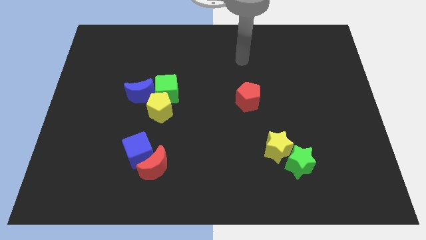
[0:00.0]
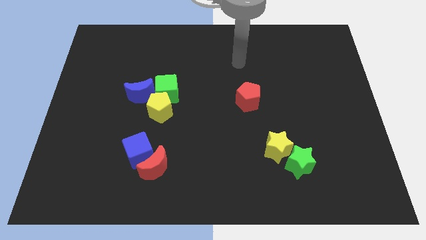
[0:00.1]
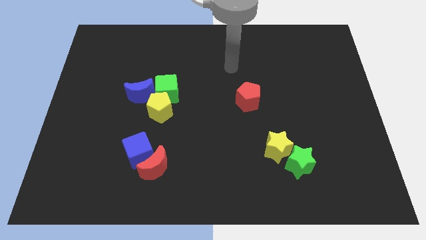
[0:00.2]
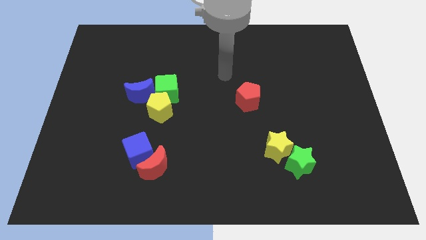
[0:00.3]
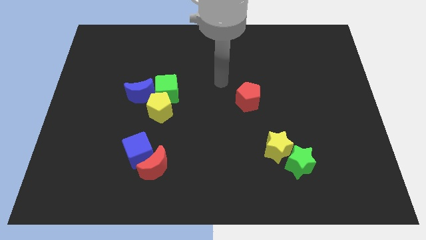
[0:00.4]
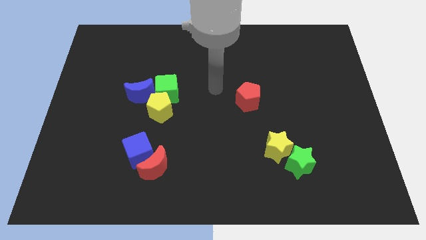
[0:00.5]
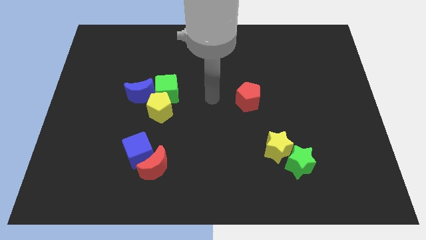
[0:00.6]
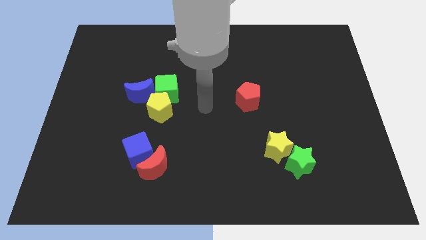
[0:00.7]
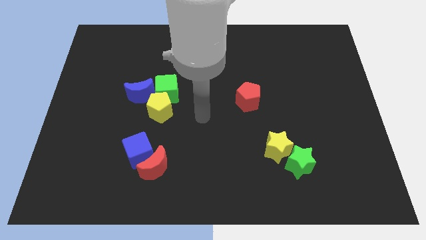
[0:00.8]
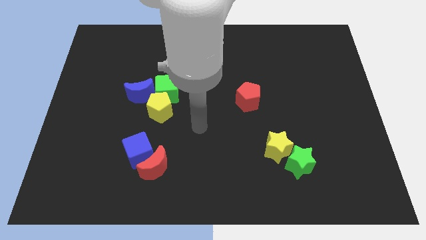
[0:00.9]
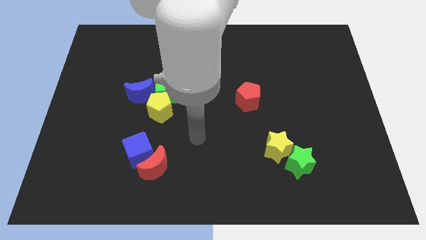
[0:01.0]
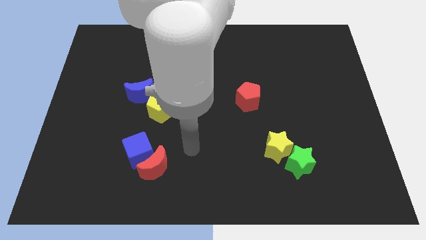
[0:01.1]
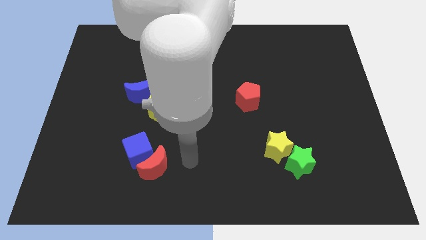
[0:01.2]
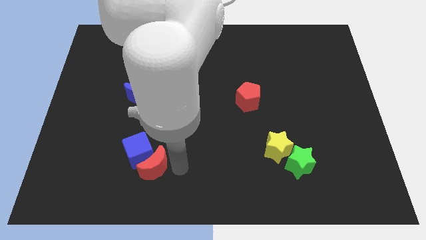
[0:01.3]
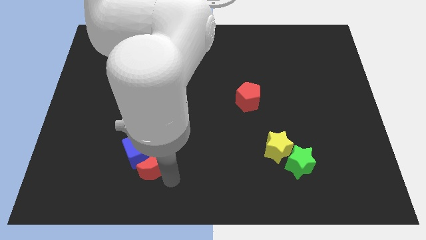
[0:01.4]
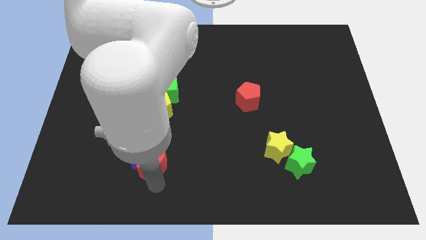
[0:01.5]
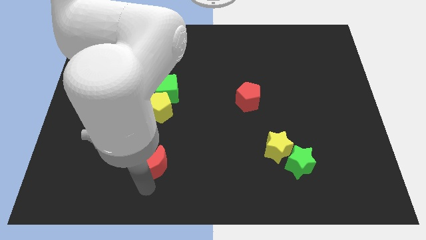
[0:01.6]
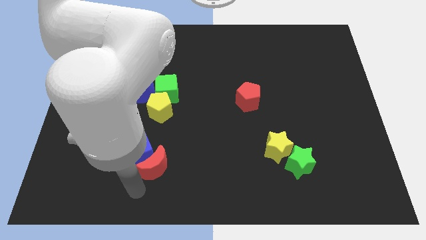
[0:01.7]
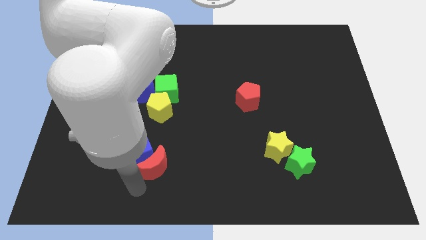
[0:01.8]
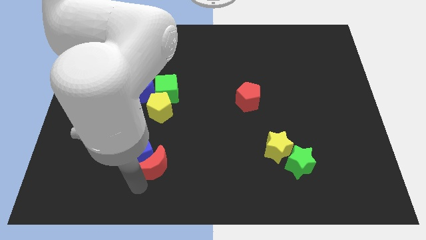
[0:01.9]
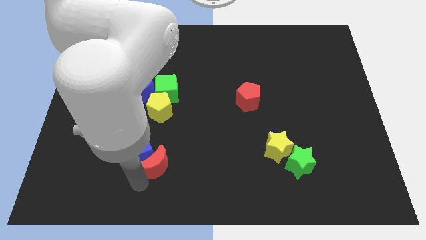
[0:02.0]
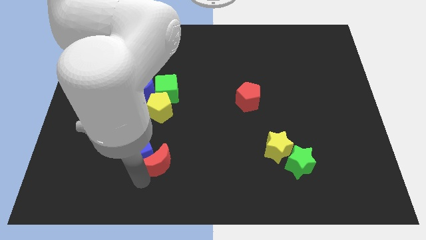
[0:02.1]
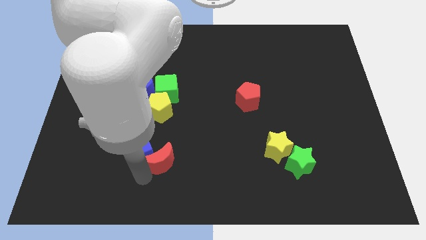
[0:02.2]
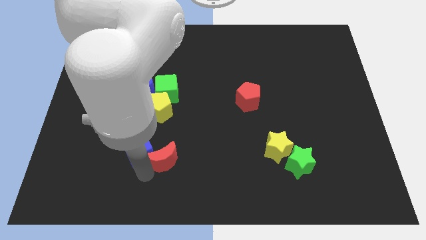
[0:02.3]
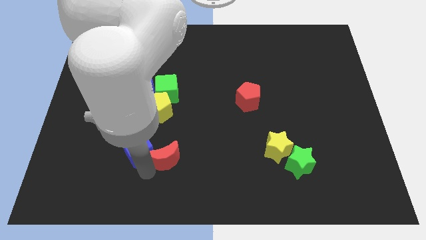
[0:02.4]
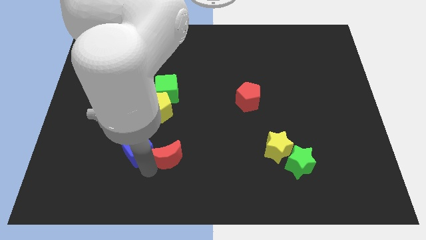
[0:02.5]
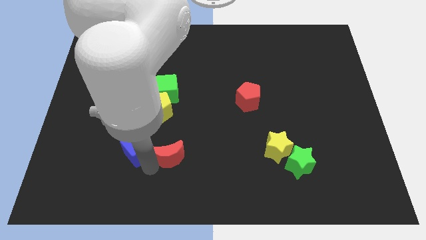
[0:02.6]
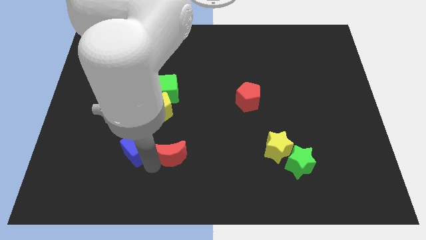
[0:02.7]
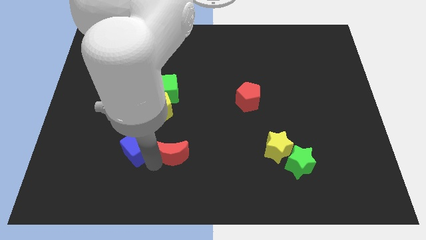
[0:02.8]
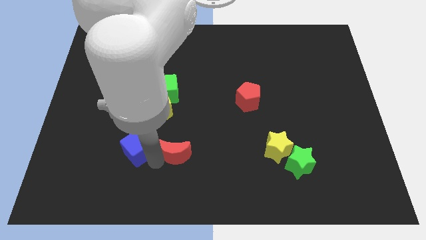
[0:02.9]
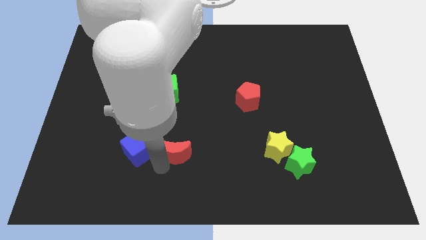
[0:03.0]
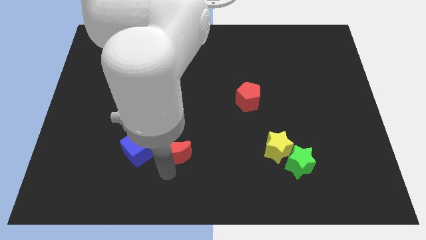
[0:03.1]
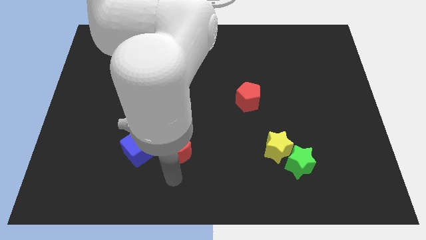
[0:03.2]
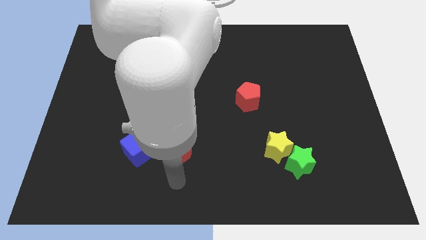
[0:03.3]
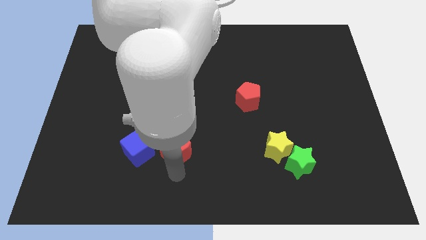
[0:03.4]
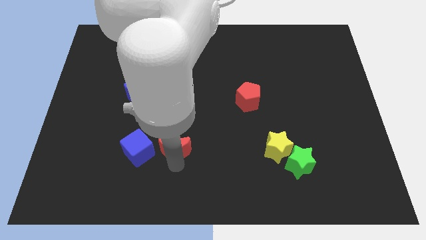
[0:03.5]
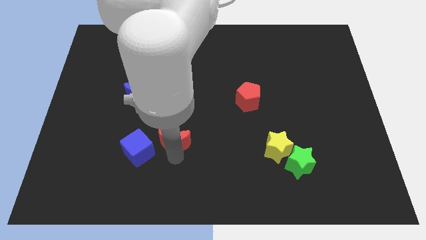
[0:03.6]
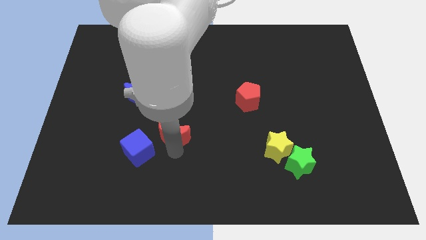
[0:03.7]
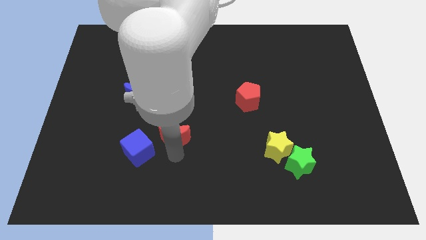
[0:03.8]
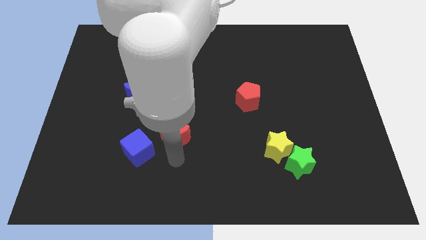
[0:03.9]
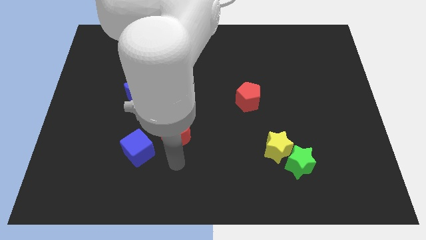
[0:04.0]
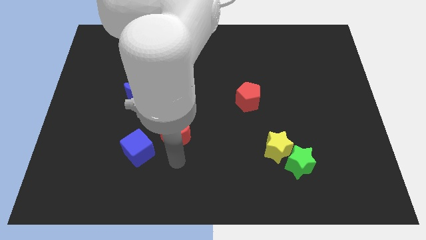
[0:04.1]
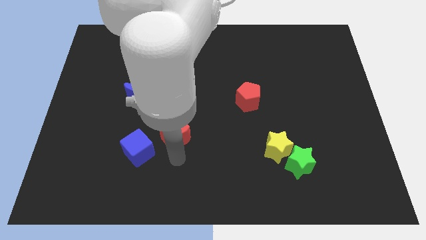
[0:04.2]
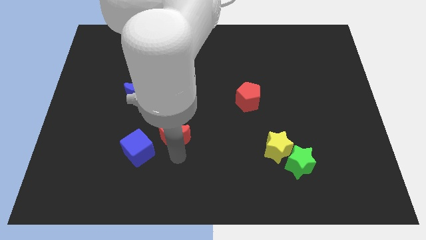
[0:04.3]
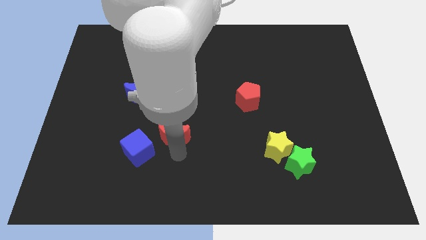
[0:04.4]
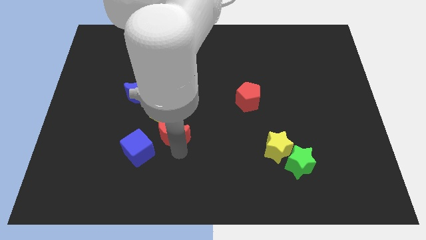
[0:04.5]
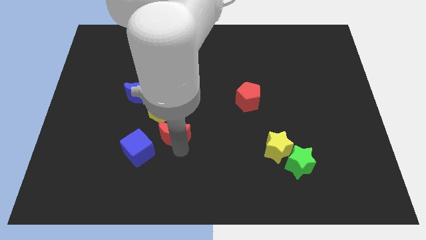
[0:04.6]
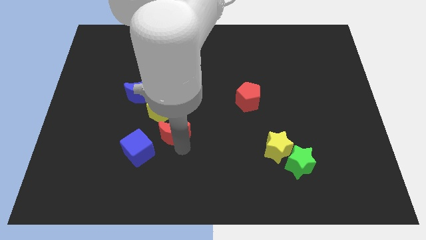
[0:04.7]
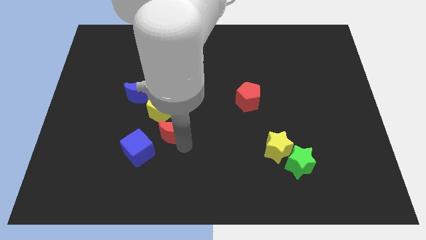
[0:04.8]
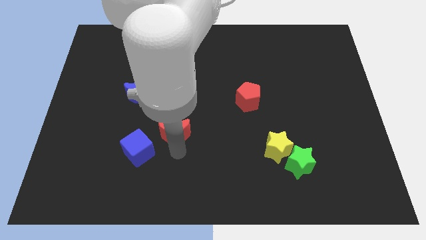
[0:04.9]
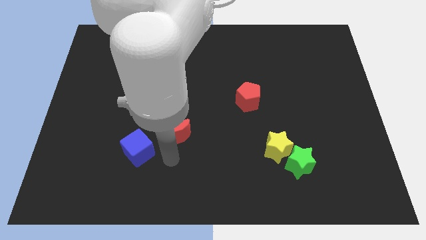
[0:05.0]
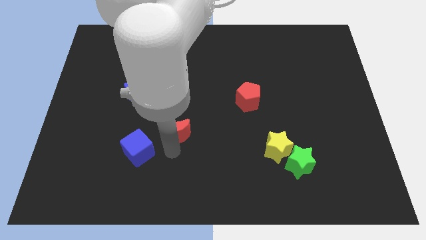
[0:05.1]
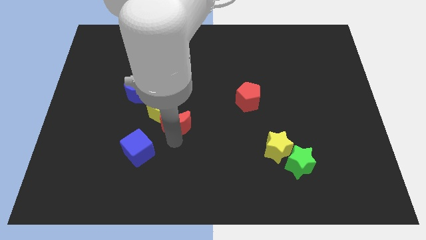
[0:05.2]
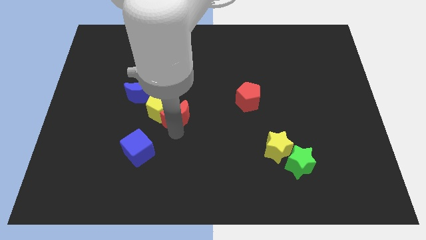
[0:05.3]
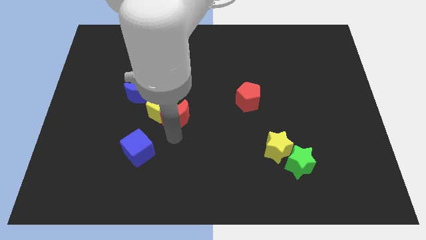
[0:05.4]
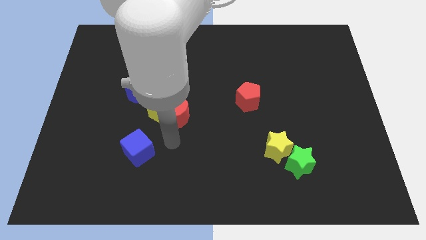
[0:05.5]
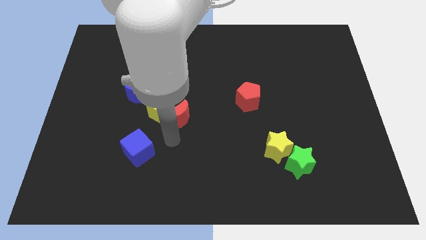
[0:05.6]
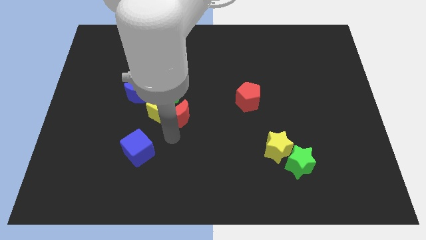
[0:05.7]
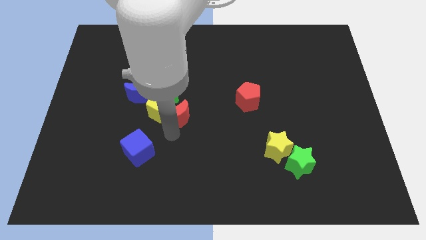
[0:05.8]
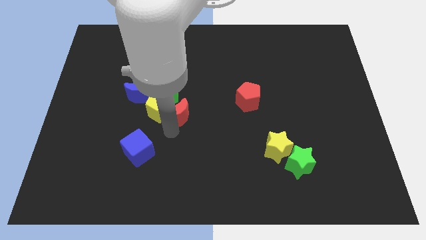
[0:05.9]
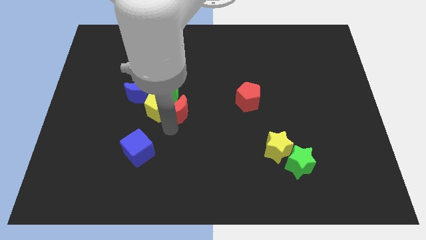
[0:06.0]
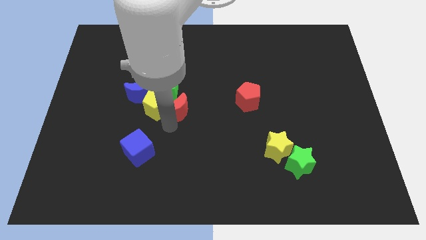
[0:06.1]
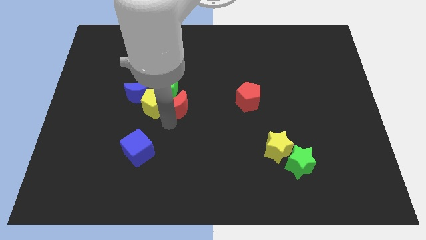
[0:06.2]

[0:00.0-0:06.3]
slide the red moon just right of the blue moon
